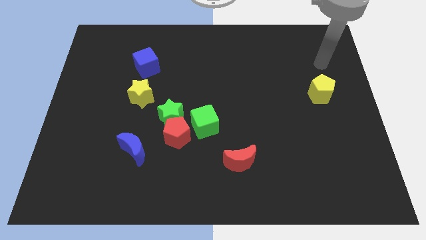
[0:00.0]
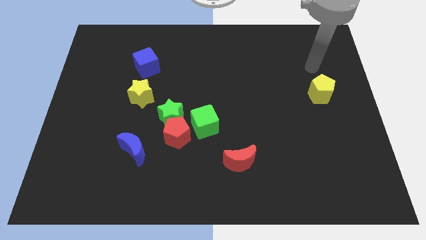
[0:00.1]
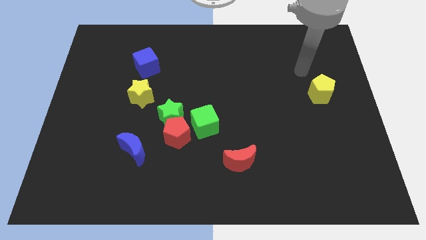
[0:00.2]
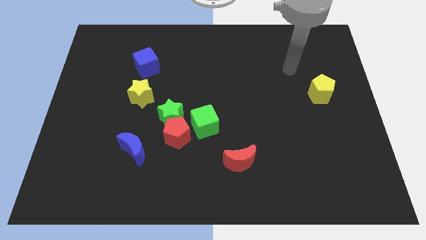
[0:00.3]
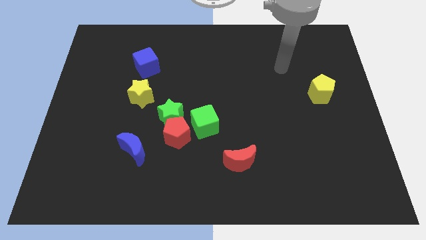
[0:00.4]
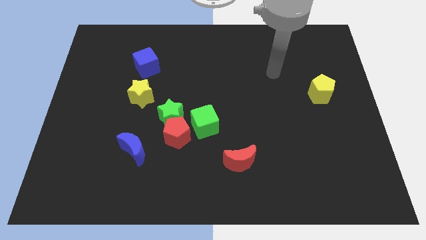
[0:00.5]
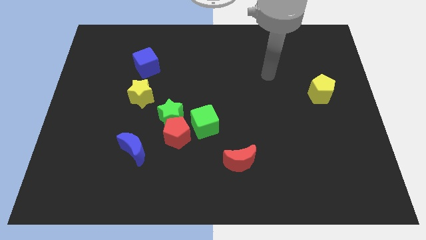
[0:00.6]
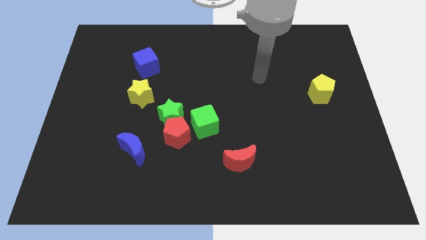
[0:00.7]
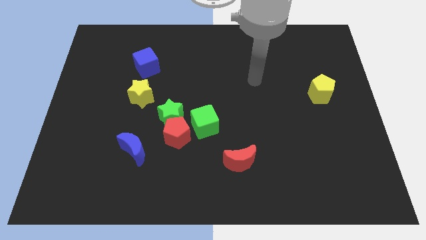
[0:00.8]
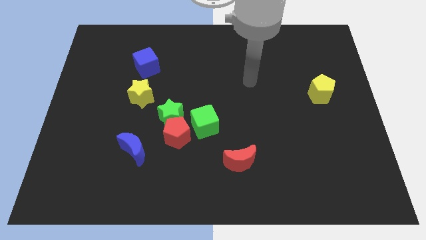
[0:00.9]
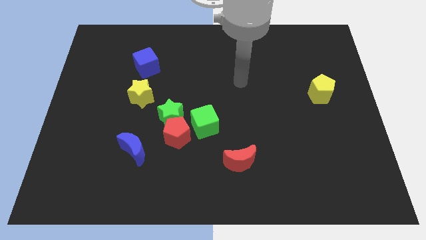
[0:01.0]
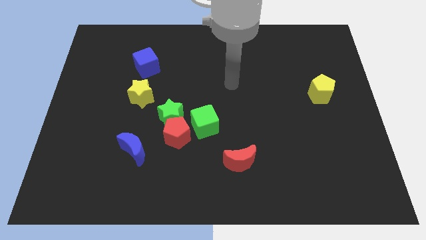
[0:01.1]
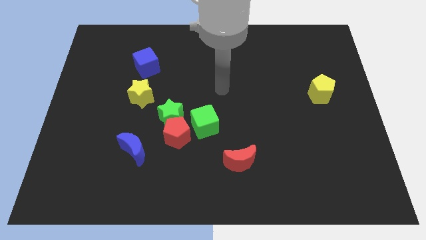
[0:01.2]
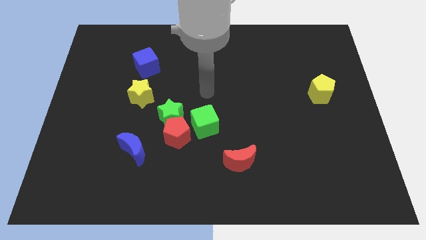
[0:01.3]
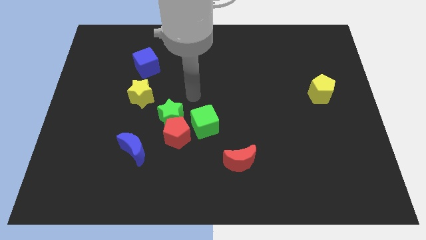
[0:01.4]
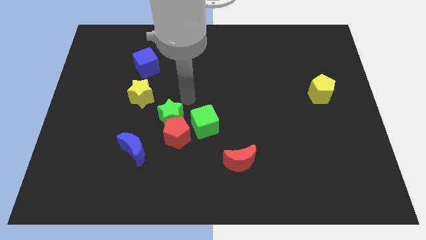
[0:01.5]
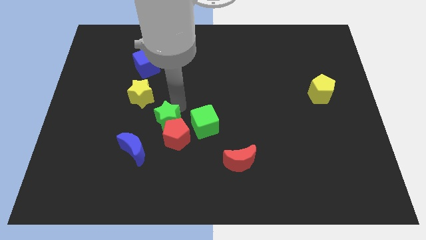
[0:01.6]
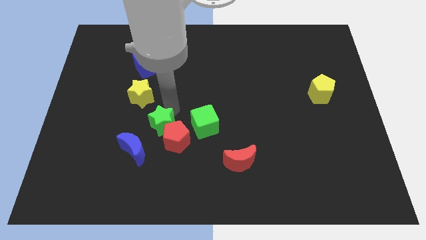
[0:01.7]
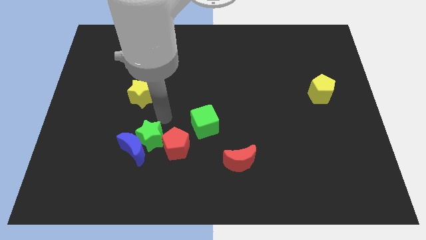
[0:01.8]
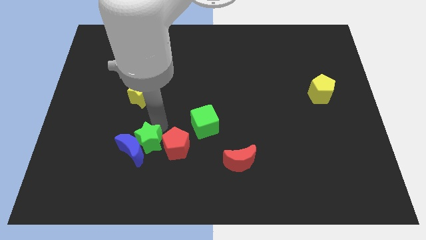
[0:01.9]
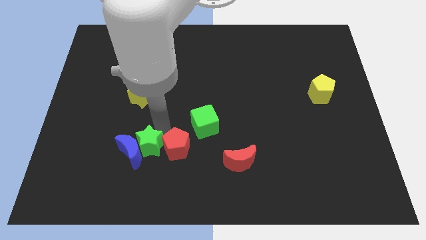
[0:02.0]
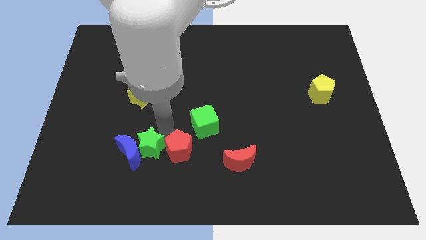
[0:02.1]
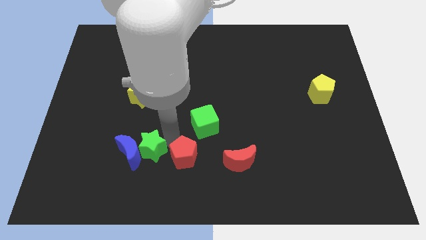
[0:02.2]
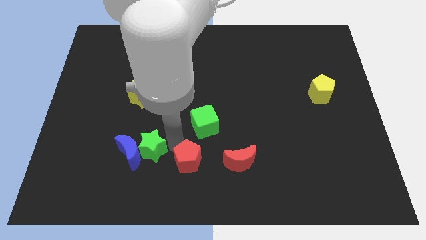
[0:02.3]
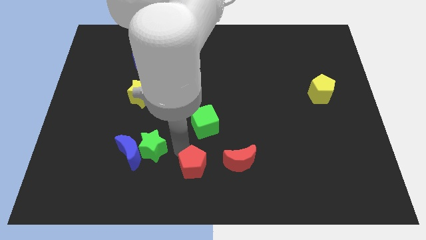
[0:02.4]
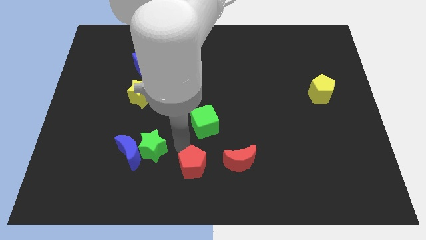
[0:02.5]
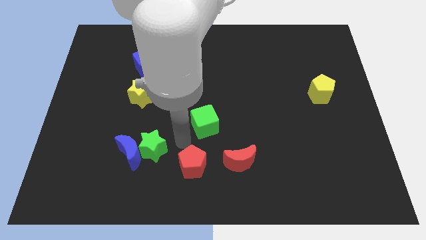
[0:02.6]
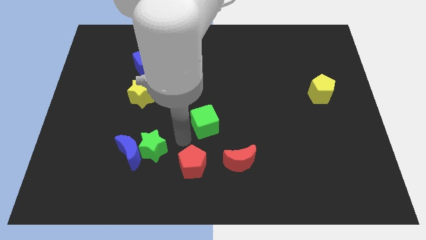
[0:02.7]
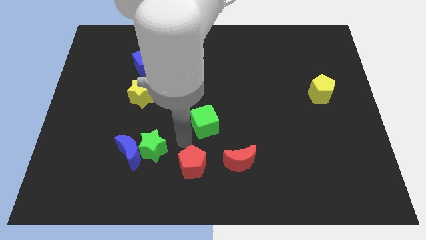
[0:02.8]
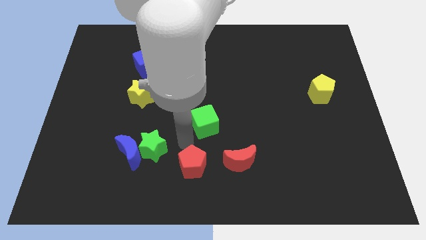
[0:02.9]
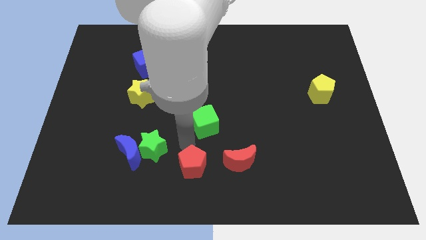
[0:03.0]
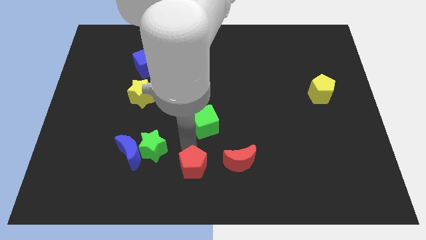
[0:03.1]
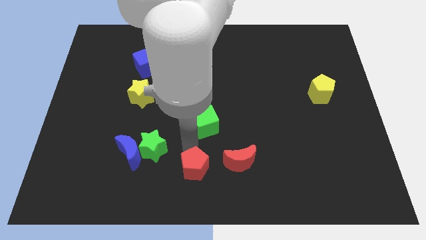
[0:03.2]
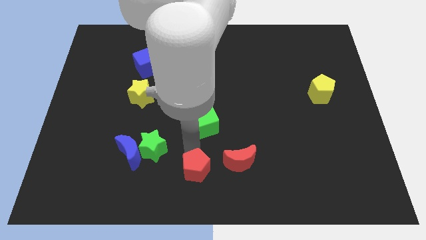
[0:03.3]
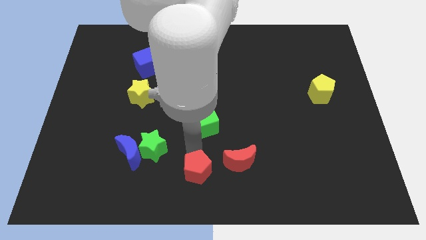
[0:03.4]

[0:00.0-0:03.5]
pull the red pentagon apart from the group

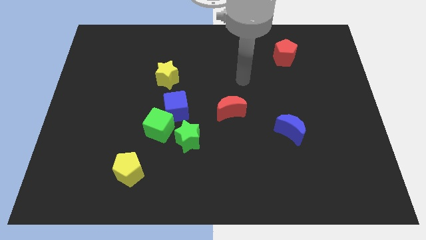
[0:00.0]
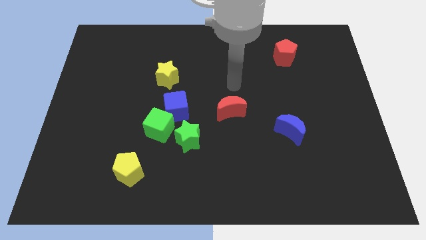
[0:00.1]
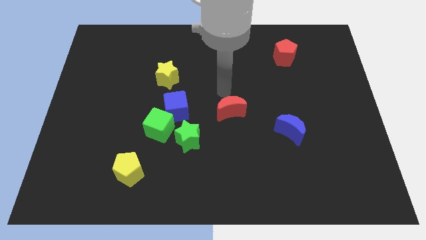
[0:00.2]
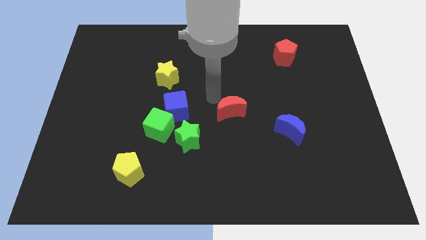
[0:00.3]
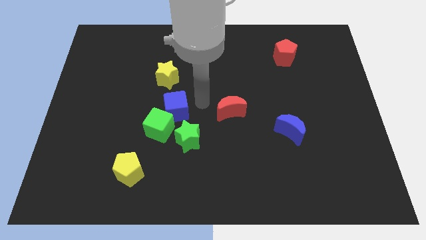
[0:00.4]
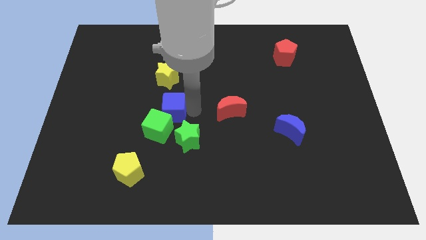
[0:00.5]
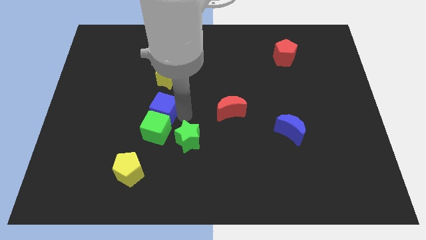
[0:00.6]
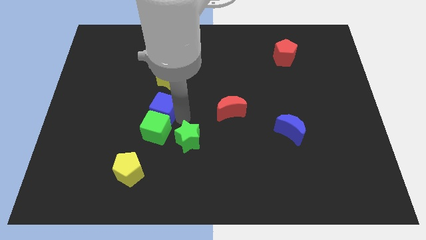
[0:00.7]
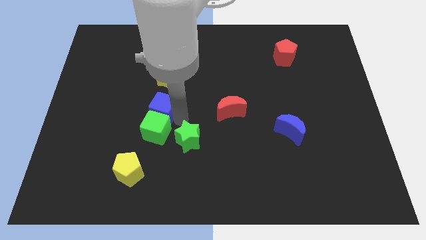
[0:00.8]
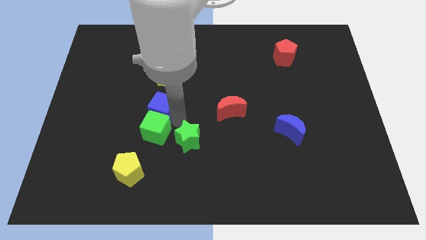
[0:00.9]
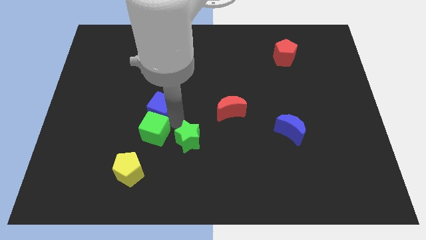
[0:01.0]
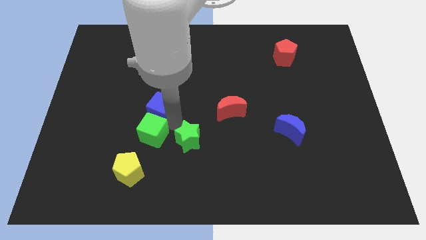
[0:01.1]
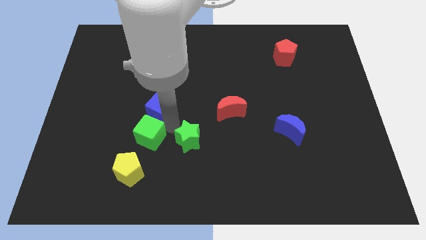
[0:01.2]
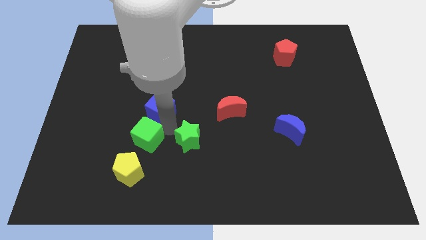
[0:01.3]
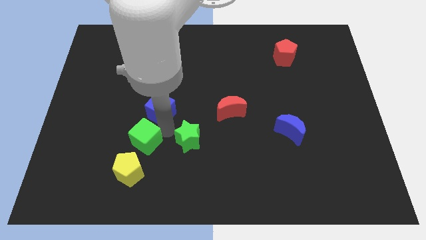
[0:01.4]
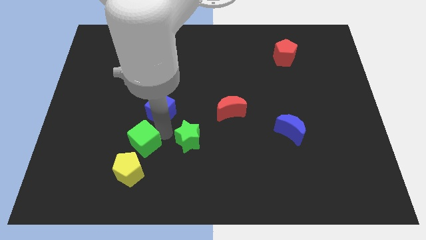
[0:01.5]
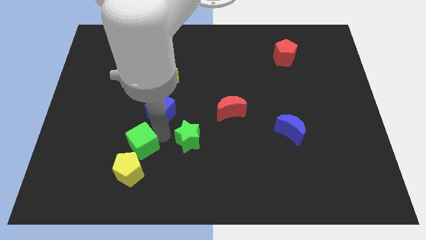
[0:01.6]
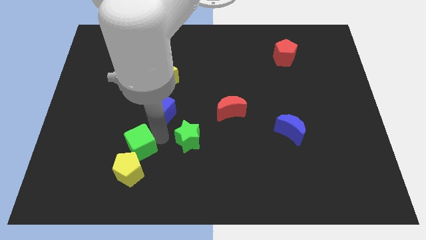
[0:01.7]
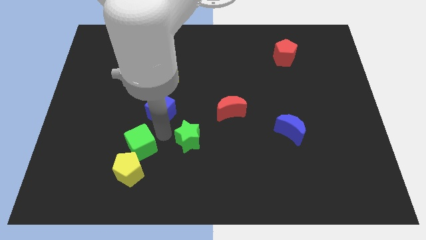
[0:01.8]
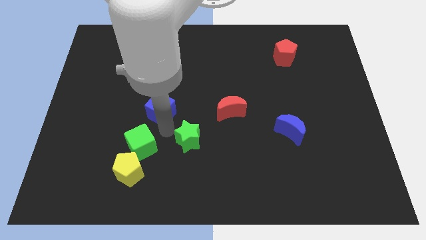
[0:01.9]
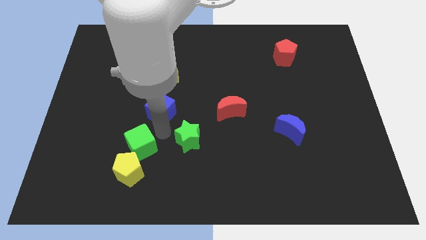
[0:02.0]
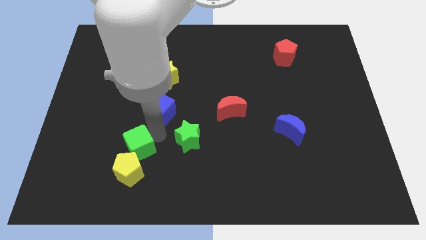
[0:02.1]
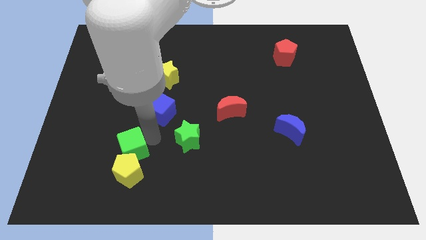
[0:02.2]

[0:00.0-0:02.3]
separate the green cube from the blue cube and green star

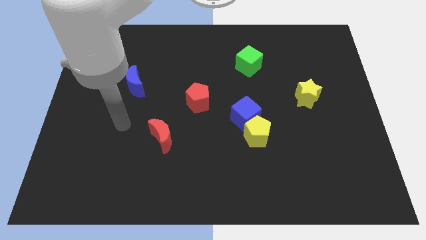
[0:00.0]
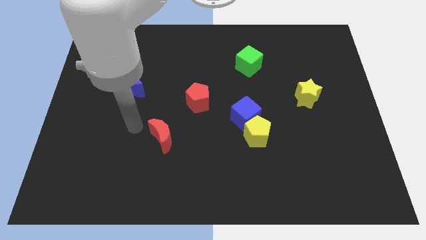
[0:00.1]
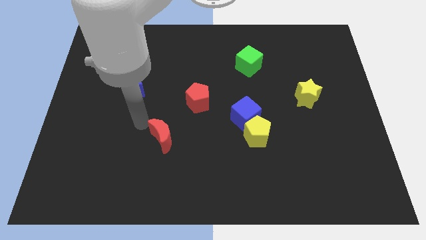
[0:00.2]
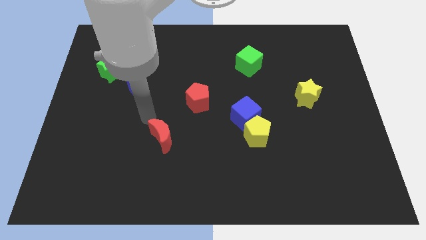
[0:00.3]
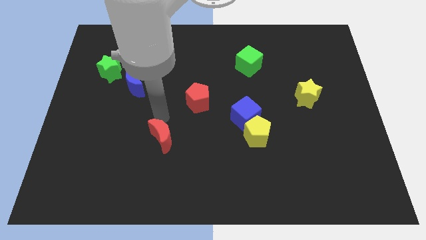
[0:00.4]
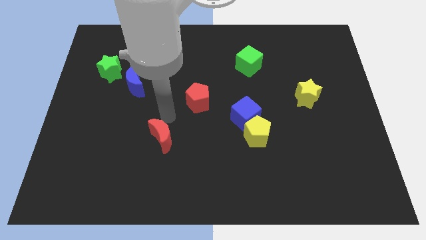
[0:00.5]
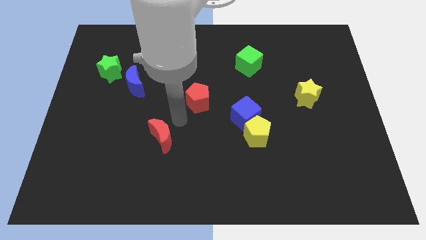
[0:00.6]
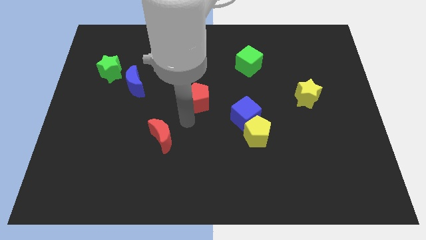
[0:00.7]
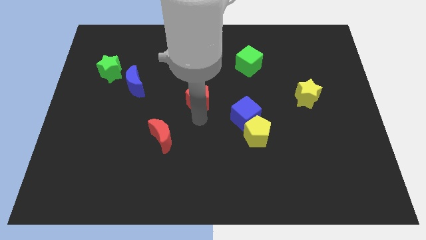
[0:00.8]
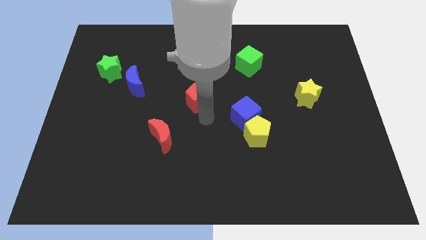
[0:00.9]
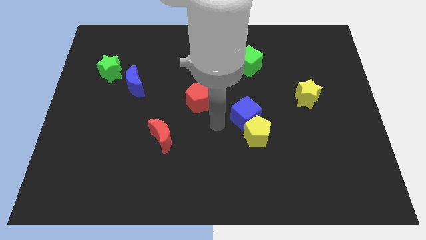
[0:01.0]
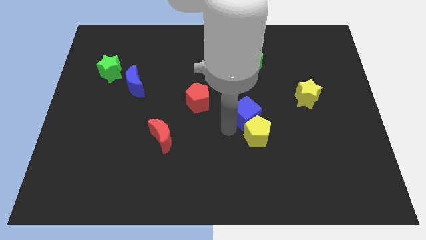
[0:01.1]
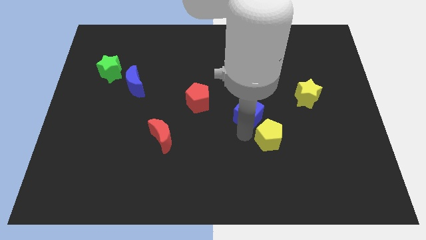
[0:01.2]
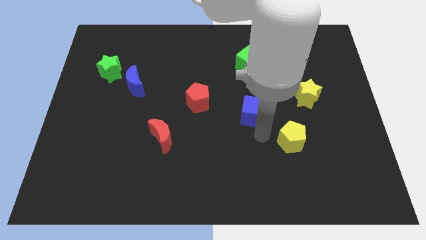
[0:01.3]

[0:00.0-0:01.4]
move the blue cube away from the yellow pentagon

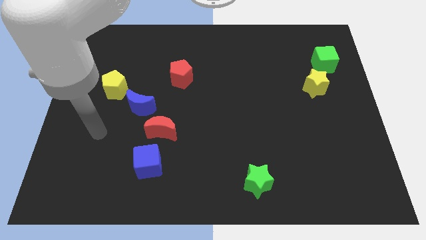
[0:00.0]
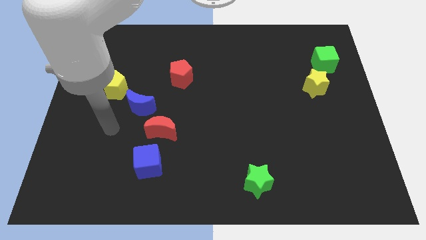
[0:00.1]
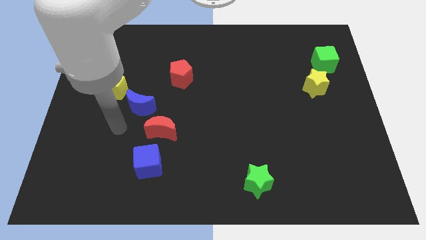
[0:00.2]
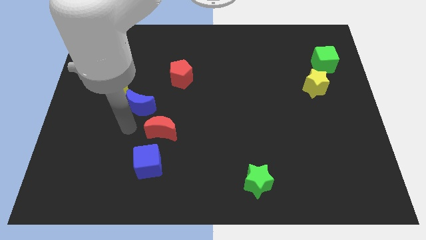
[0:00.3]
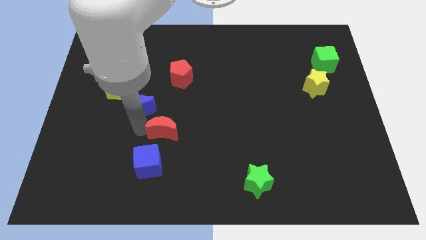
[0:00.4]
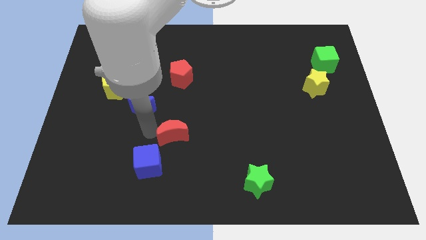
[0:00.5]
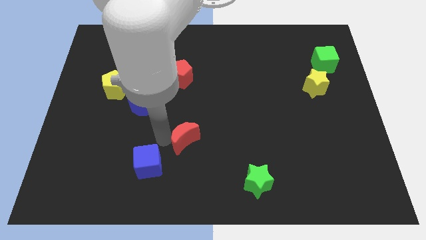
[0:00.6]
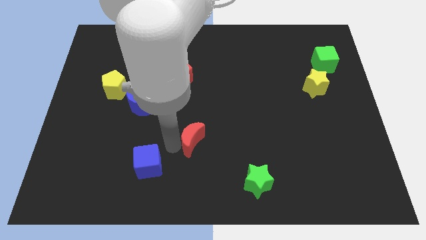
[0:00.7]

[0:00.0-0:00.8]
move the blue cube away from the red moon

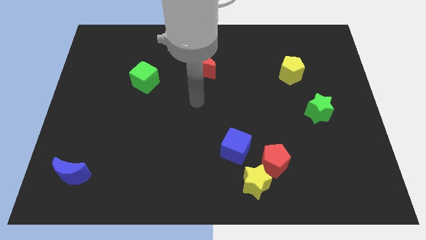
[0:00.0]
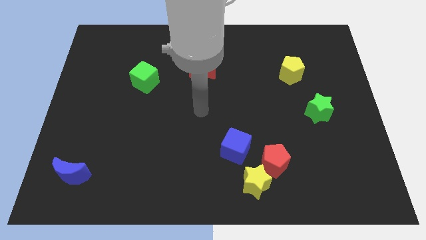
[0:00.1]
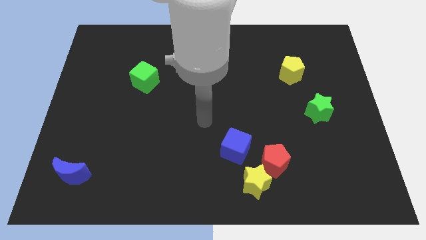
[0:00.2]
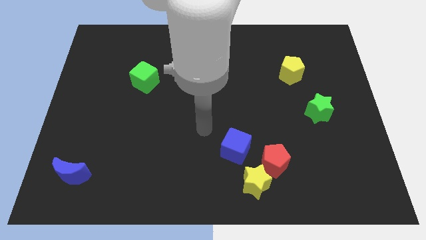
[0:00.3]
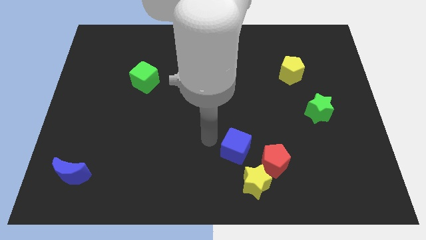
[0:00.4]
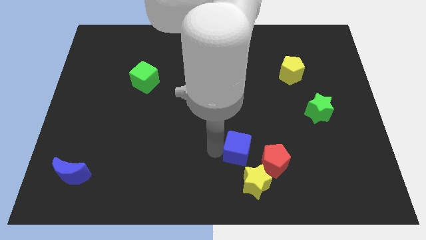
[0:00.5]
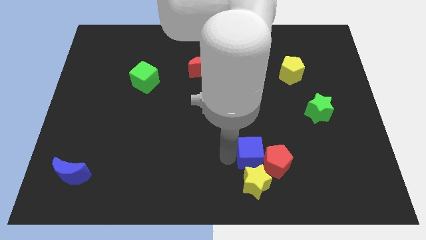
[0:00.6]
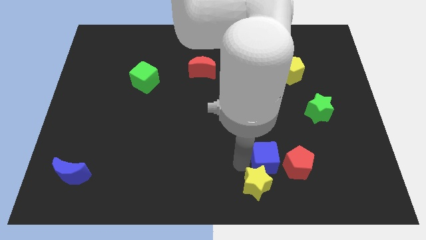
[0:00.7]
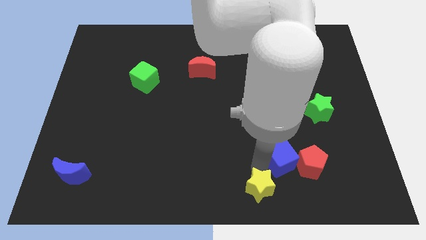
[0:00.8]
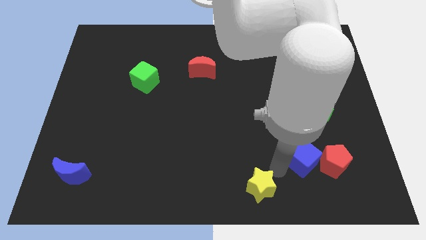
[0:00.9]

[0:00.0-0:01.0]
separate the red pentagon from the yellow star and blue cube

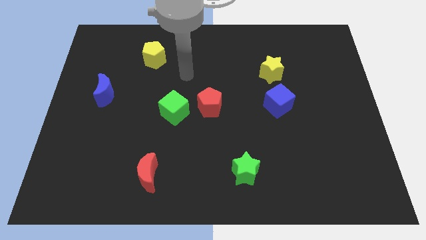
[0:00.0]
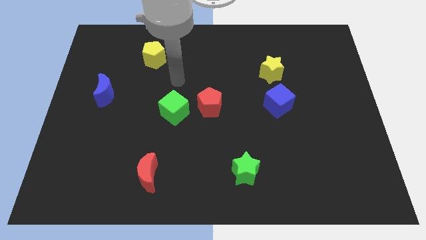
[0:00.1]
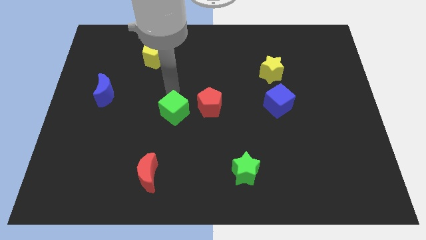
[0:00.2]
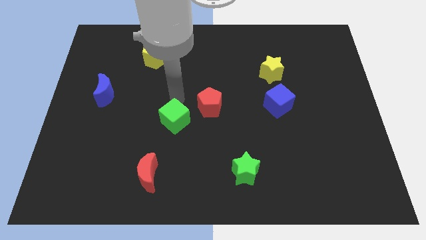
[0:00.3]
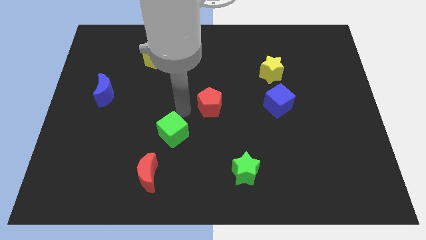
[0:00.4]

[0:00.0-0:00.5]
separate the red pentagon from the green cube
